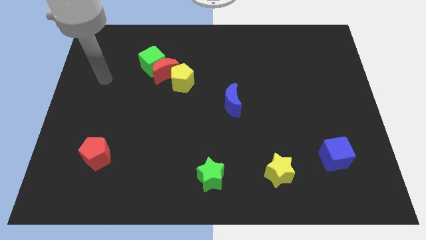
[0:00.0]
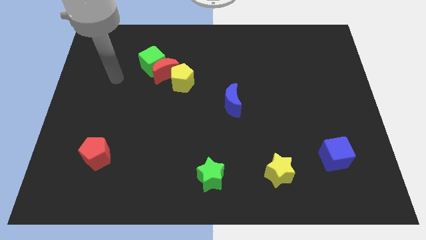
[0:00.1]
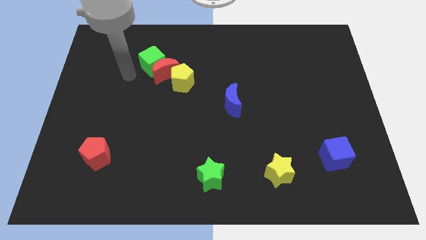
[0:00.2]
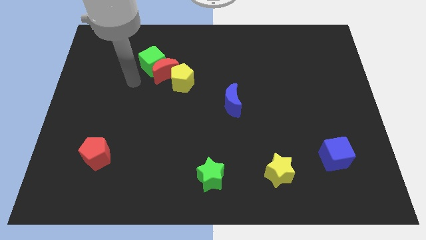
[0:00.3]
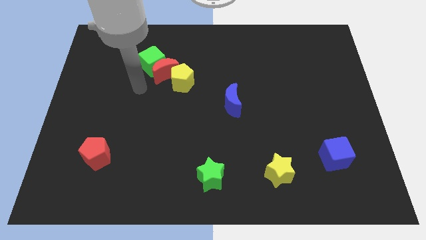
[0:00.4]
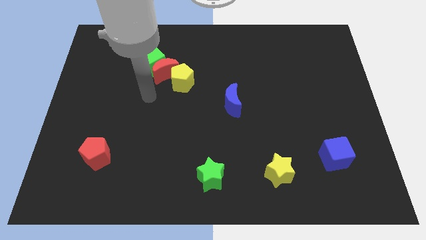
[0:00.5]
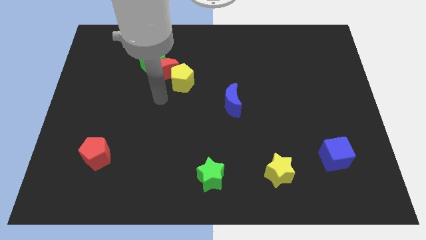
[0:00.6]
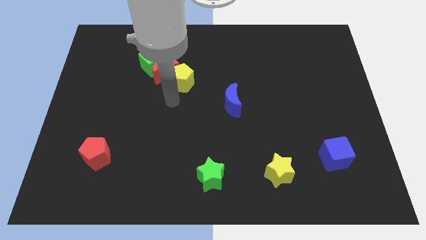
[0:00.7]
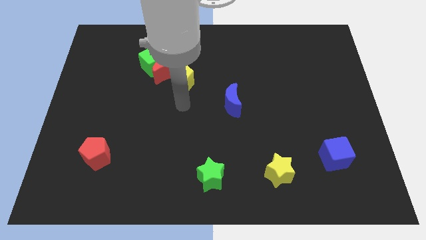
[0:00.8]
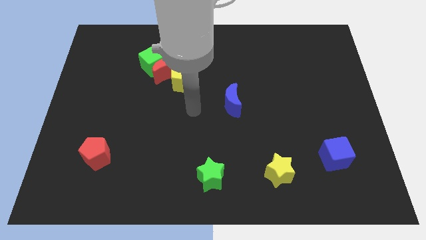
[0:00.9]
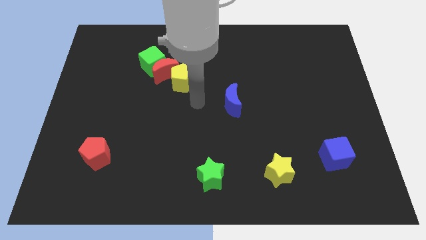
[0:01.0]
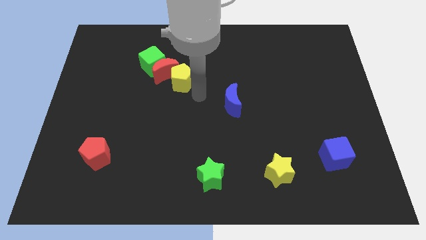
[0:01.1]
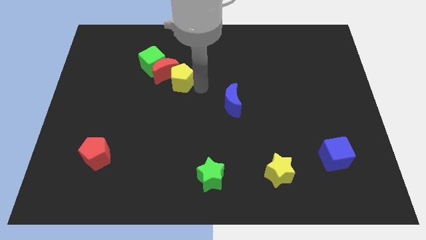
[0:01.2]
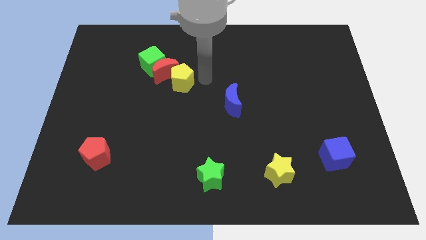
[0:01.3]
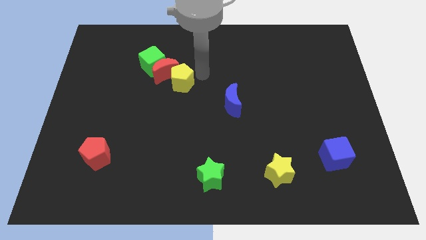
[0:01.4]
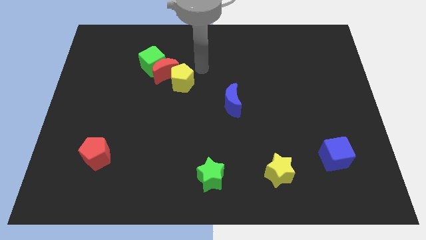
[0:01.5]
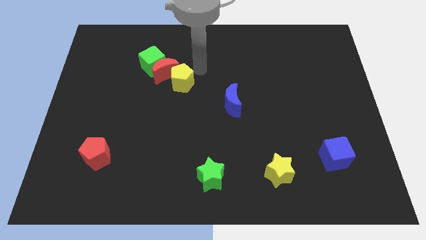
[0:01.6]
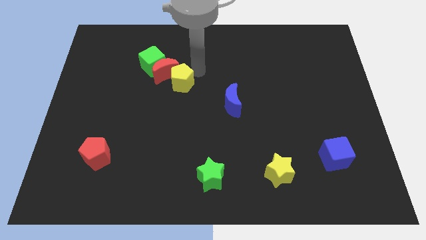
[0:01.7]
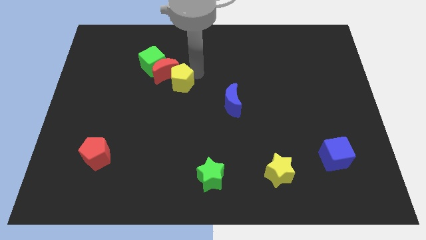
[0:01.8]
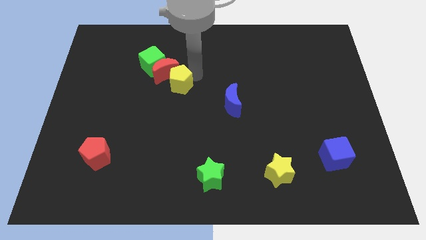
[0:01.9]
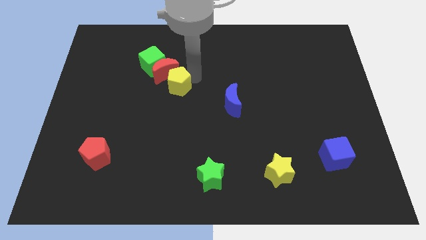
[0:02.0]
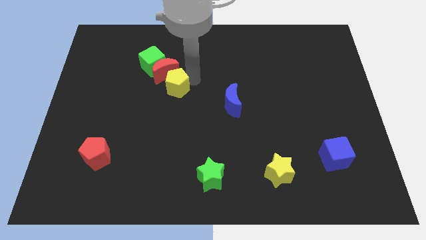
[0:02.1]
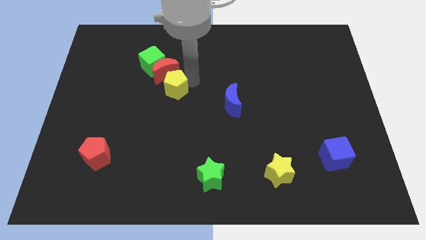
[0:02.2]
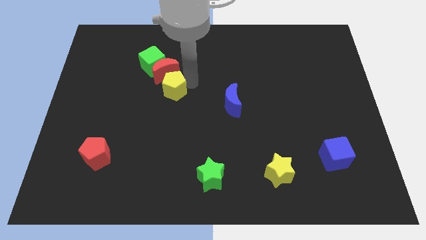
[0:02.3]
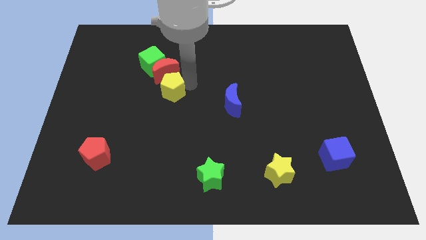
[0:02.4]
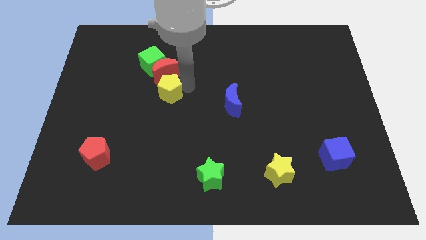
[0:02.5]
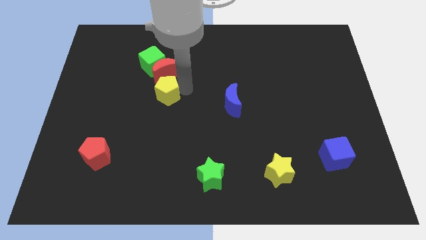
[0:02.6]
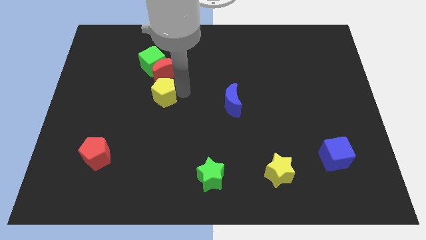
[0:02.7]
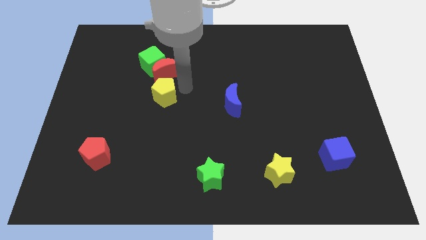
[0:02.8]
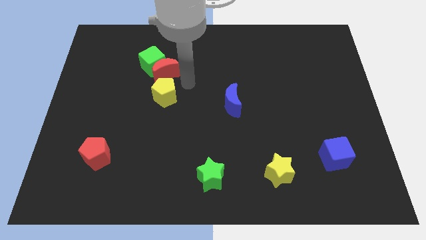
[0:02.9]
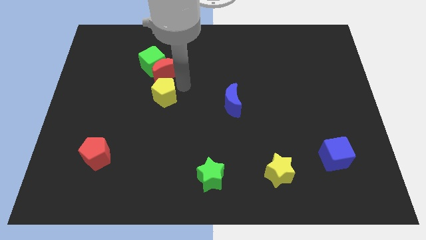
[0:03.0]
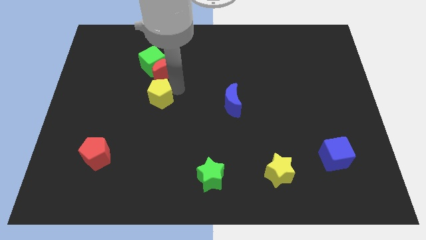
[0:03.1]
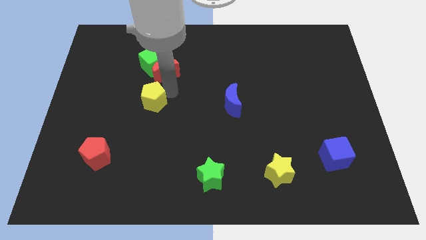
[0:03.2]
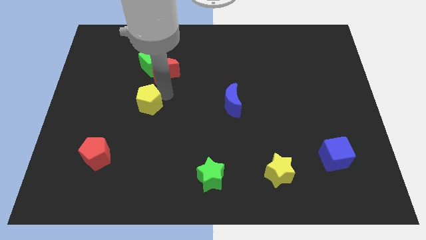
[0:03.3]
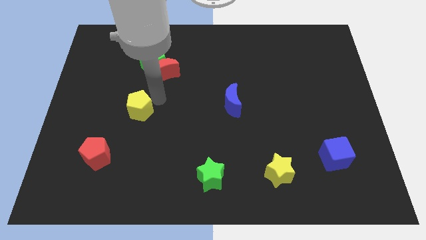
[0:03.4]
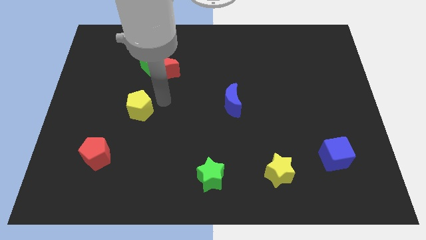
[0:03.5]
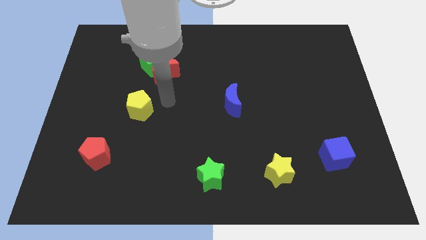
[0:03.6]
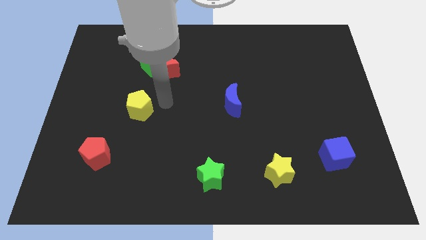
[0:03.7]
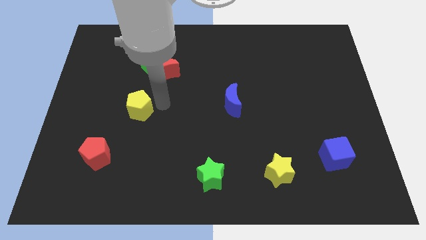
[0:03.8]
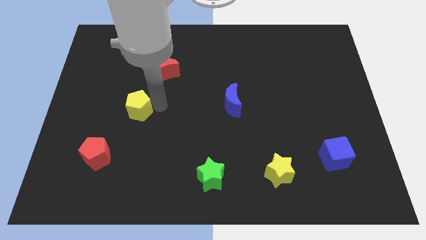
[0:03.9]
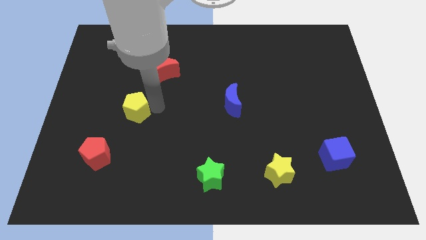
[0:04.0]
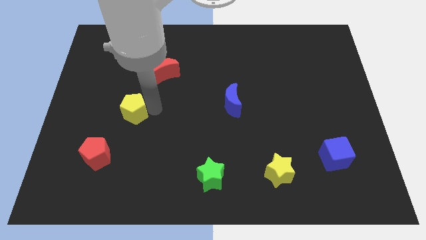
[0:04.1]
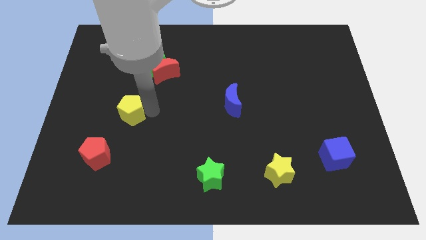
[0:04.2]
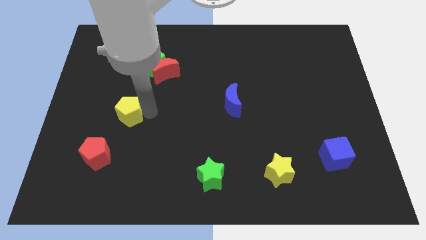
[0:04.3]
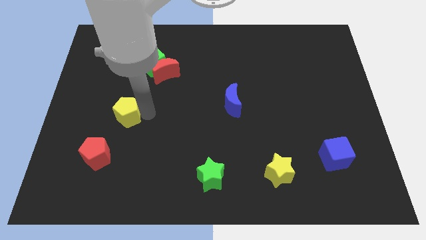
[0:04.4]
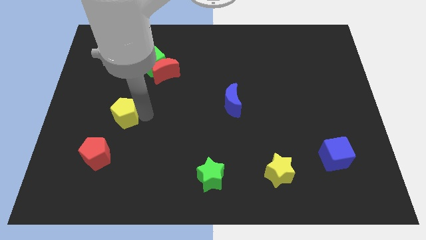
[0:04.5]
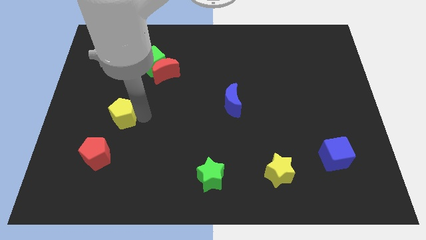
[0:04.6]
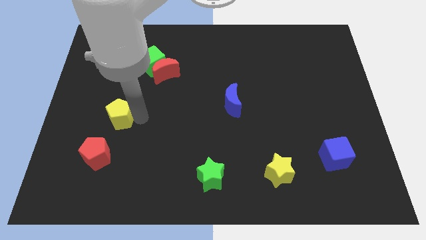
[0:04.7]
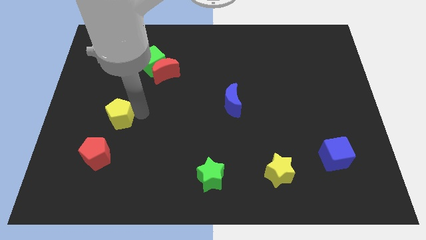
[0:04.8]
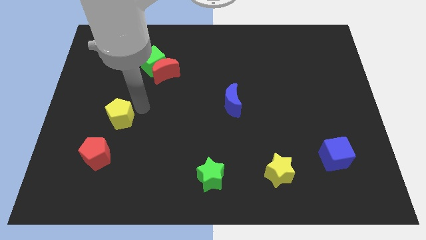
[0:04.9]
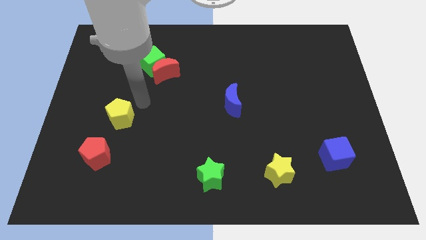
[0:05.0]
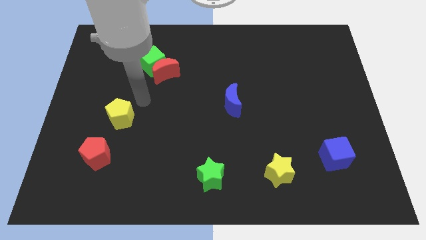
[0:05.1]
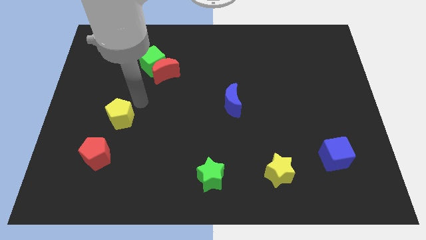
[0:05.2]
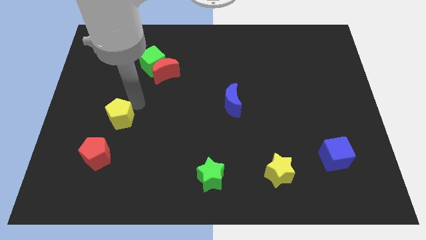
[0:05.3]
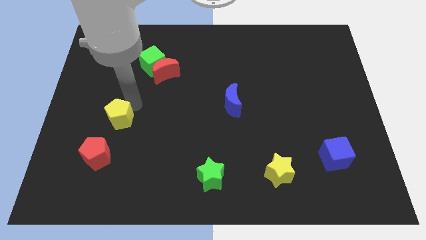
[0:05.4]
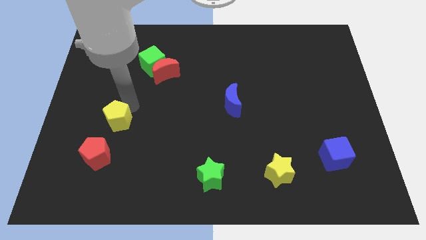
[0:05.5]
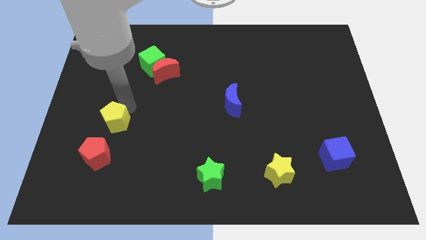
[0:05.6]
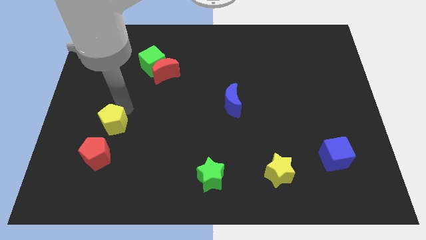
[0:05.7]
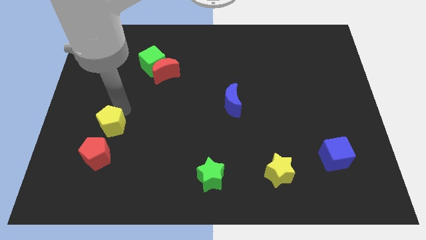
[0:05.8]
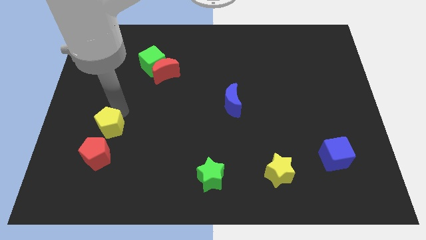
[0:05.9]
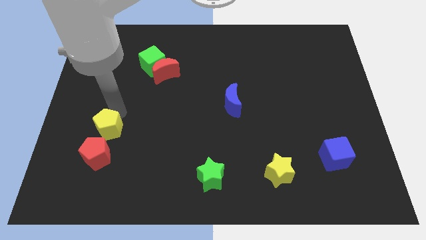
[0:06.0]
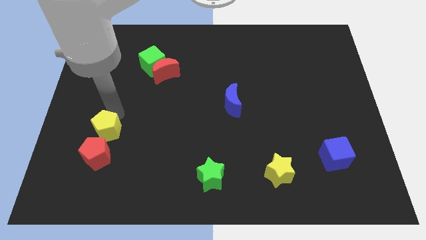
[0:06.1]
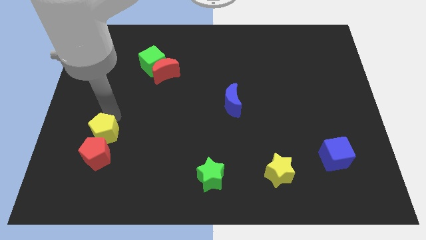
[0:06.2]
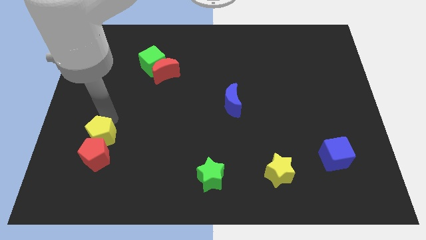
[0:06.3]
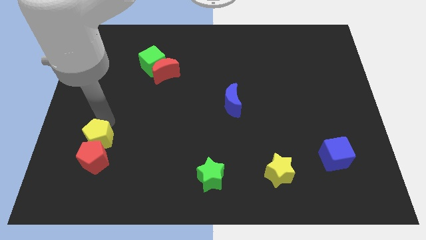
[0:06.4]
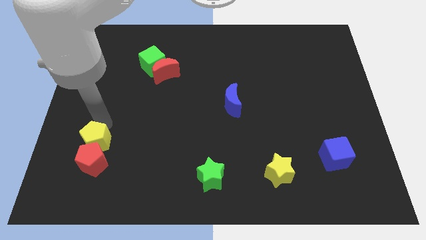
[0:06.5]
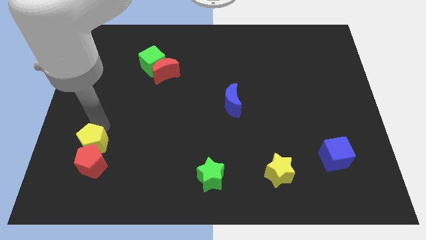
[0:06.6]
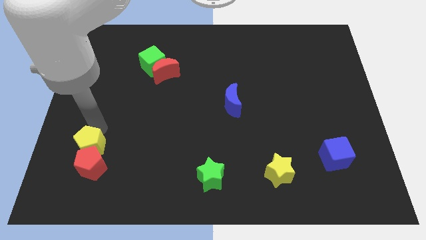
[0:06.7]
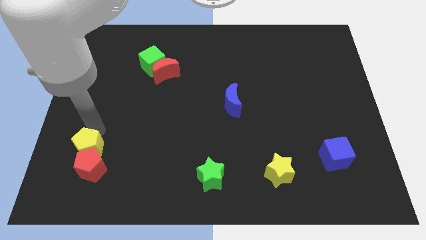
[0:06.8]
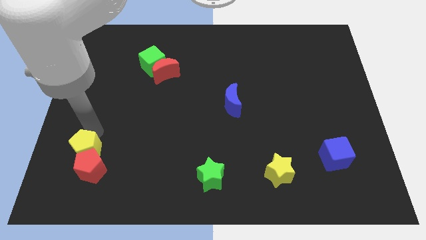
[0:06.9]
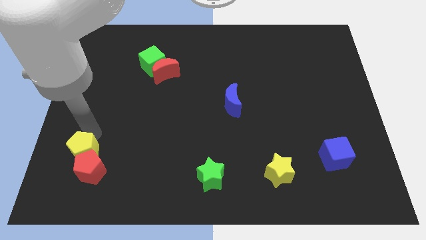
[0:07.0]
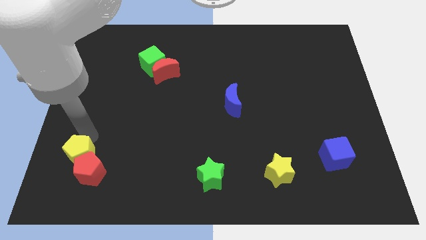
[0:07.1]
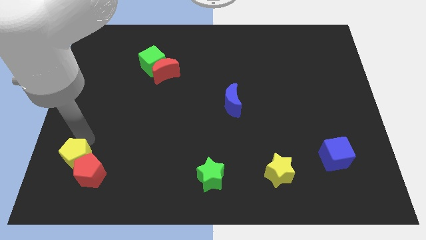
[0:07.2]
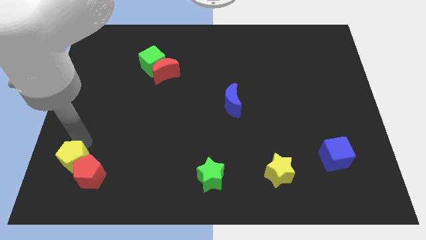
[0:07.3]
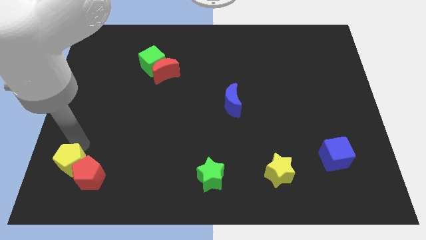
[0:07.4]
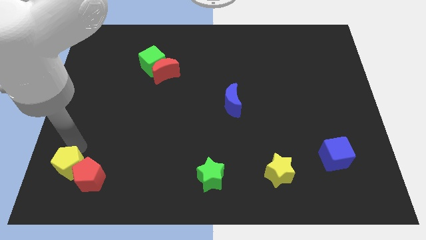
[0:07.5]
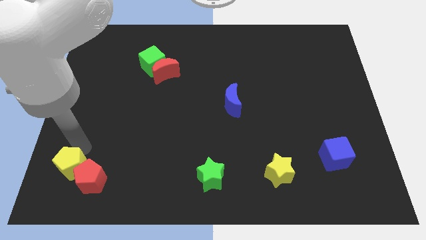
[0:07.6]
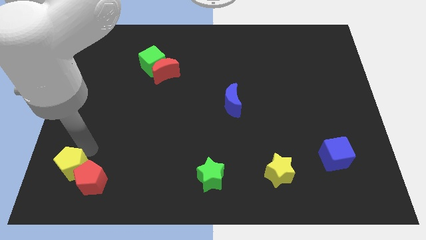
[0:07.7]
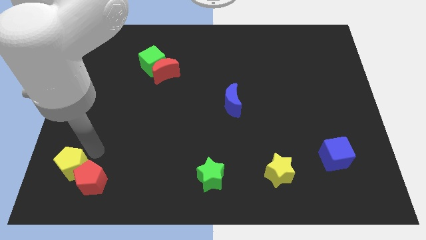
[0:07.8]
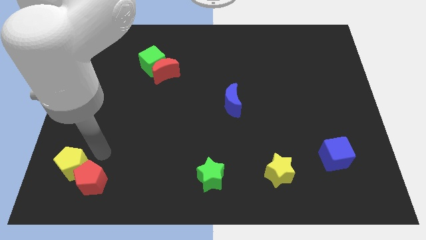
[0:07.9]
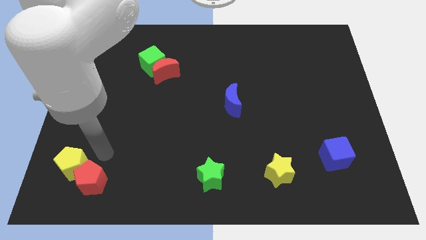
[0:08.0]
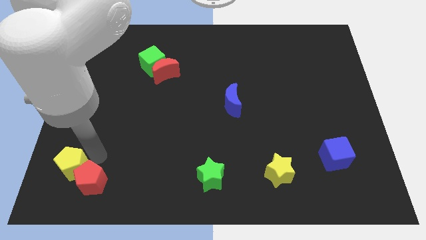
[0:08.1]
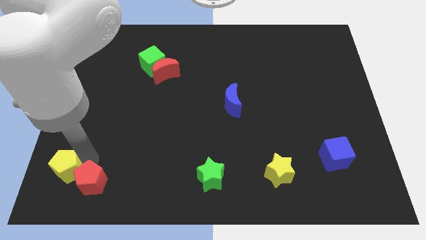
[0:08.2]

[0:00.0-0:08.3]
slide the yellow pentagon to the bottom left
